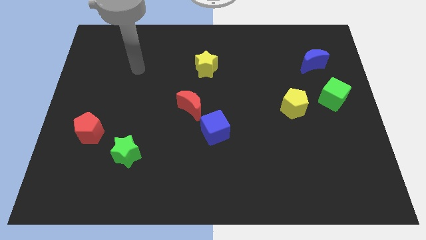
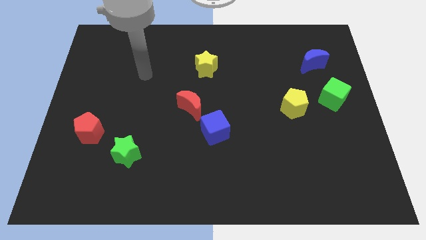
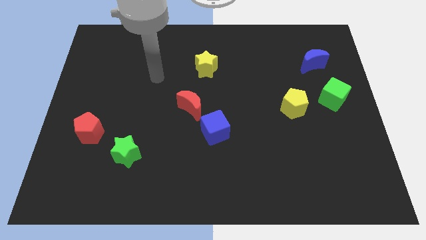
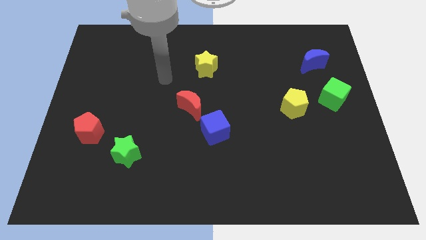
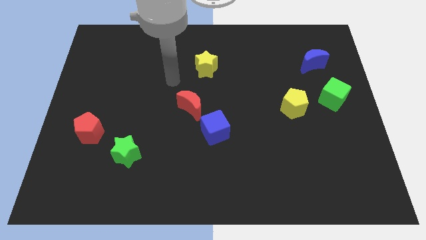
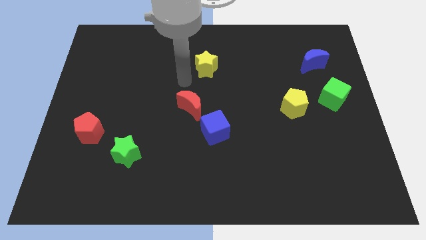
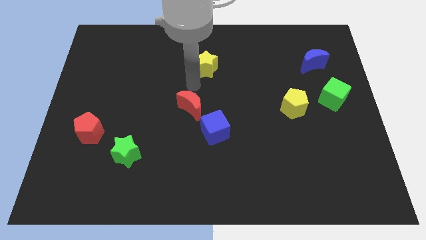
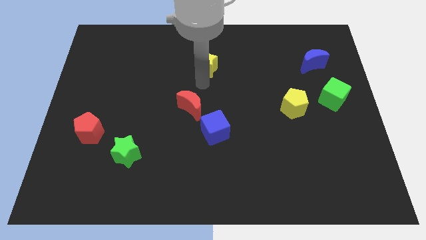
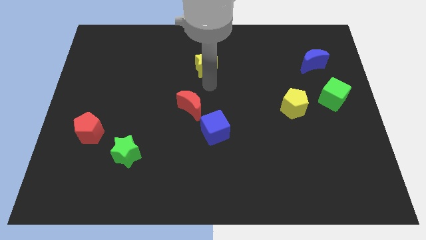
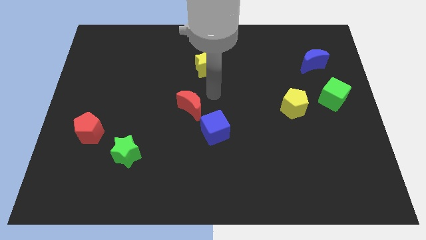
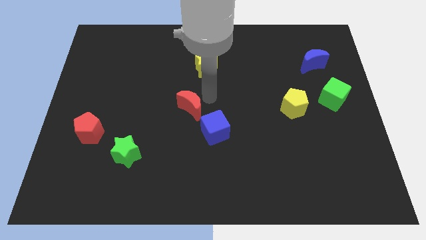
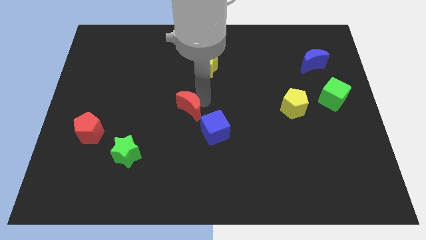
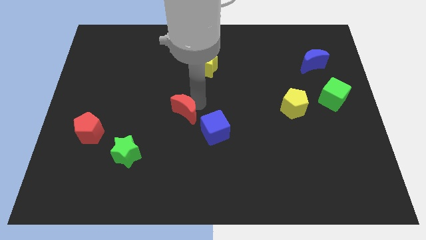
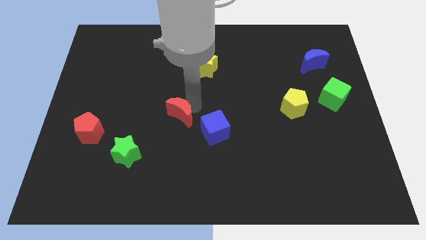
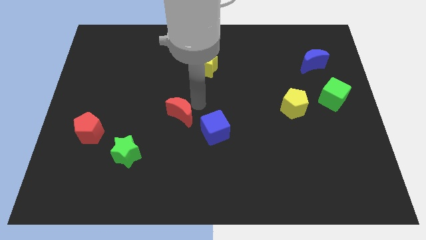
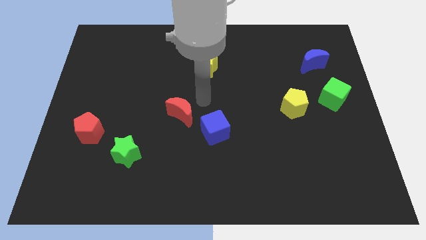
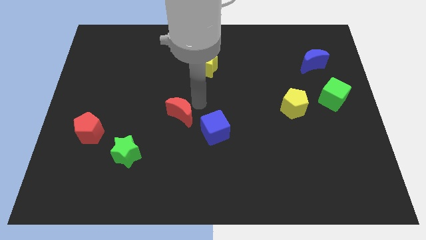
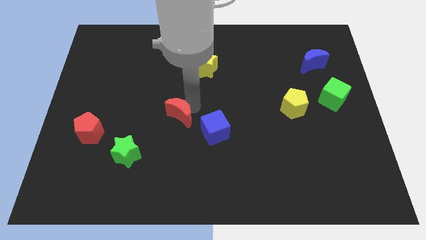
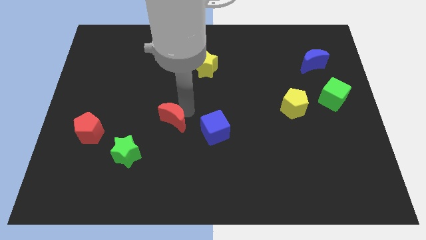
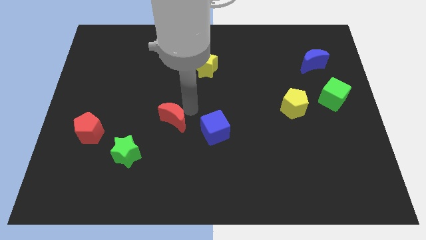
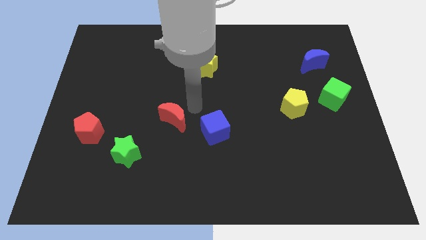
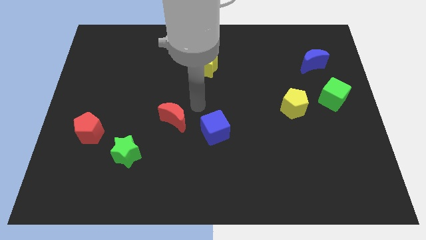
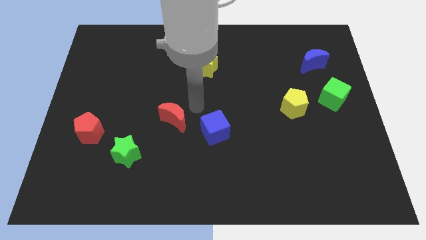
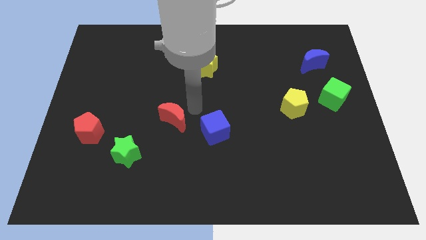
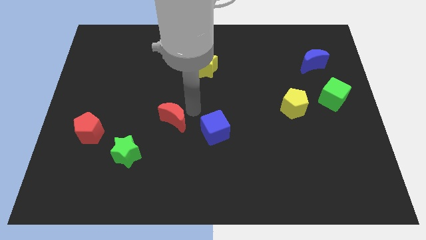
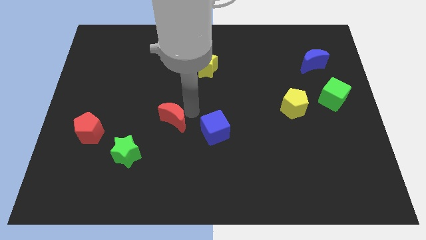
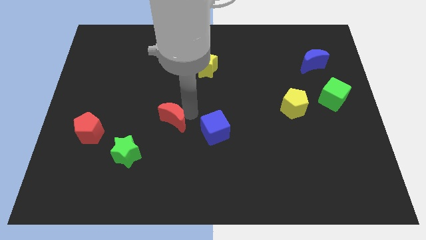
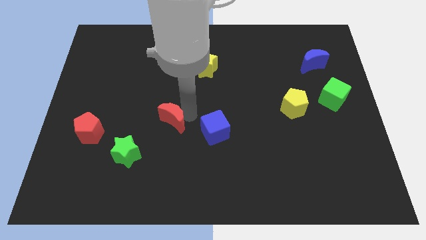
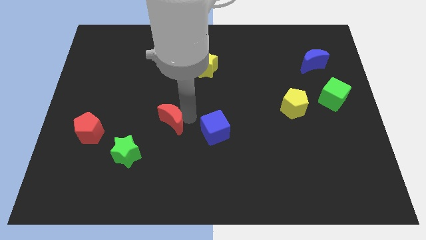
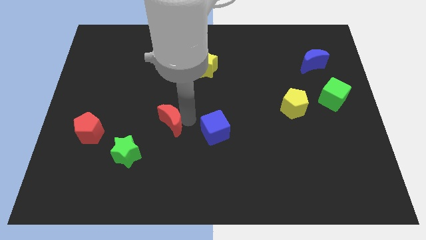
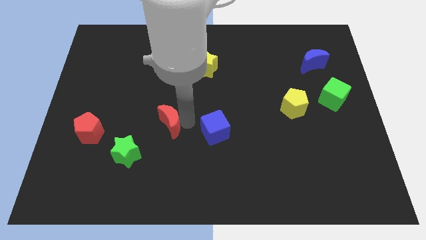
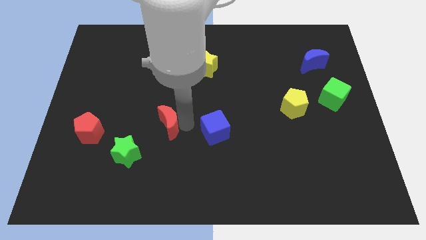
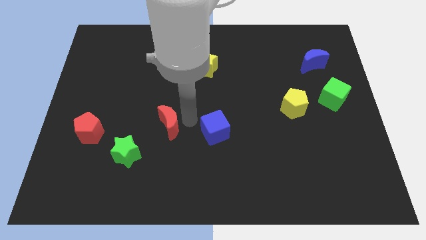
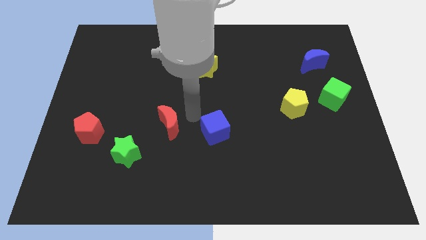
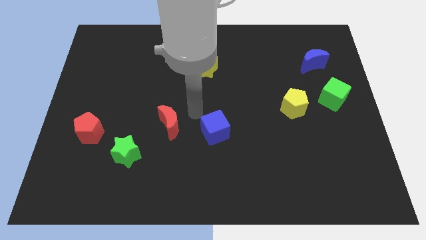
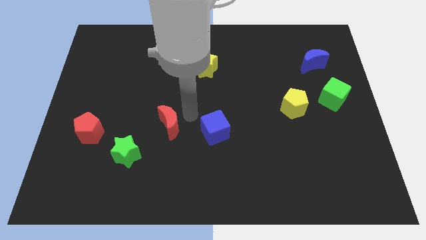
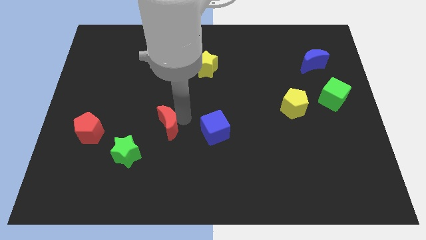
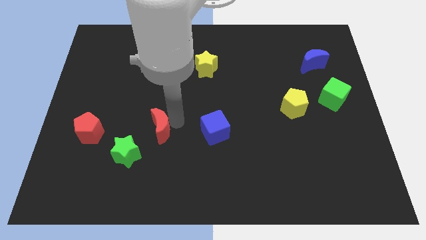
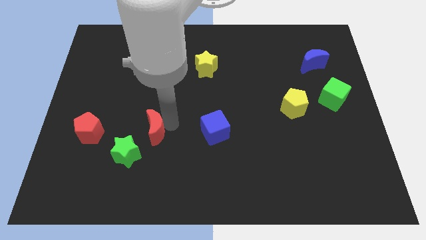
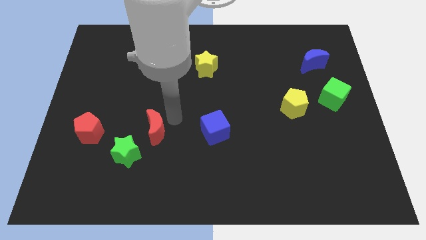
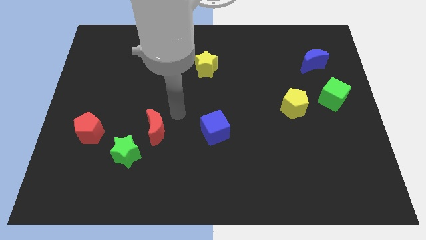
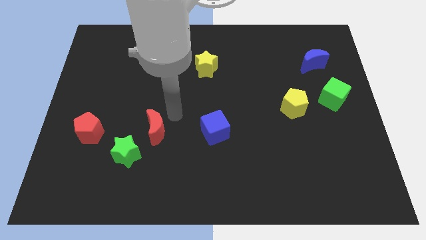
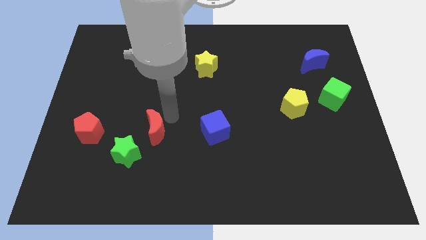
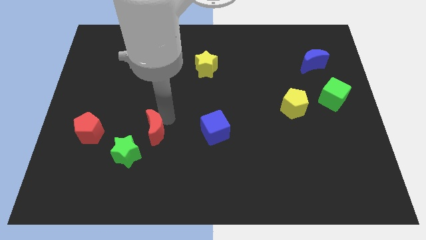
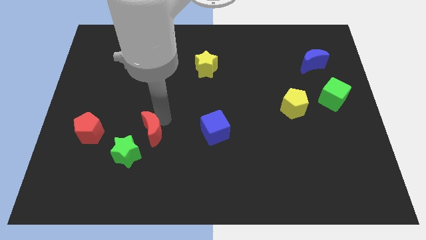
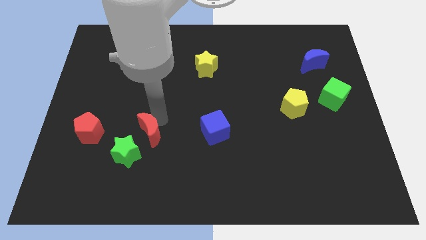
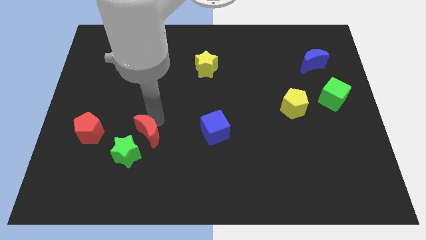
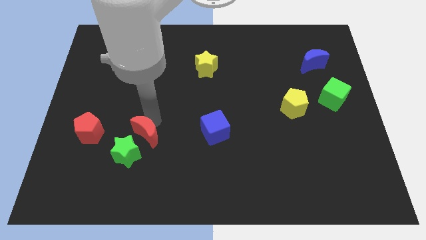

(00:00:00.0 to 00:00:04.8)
push the red moon to the green star

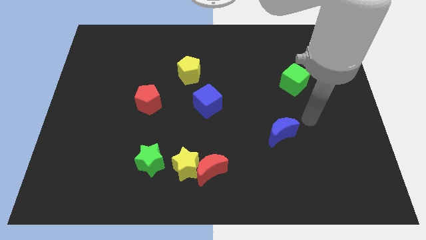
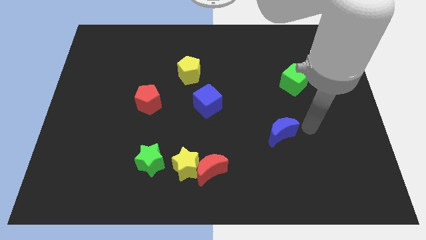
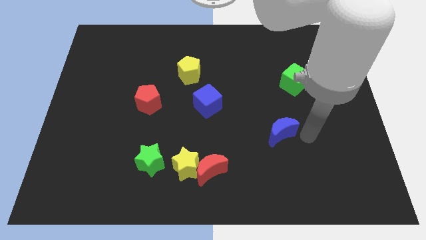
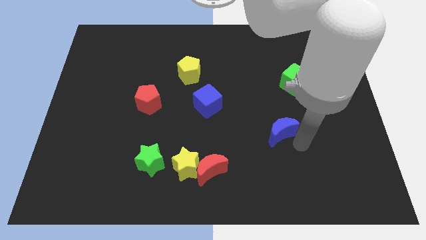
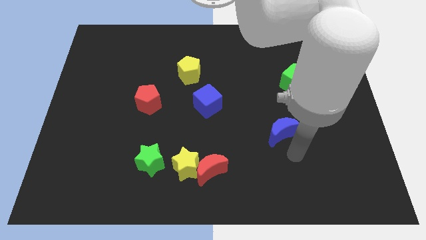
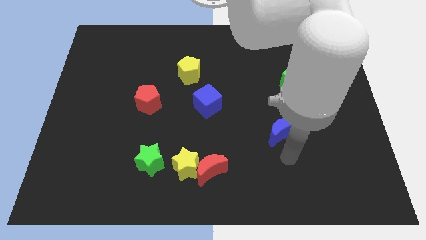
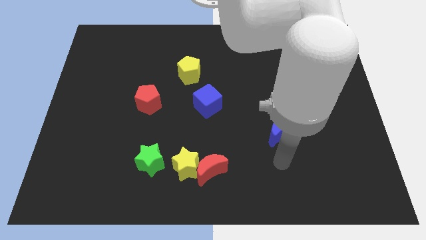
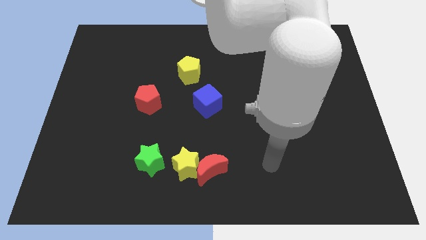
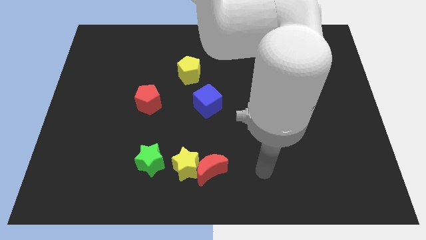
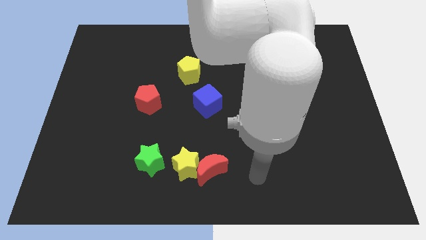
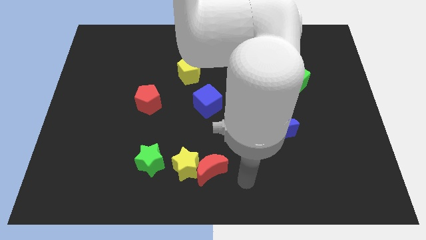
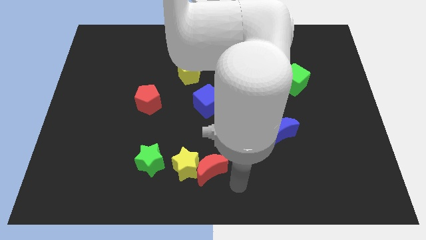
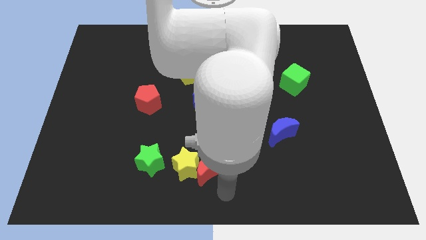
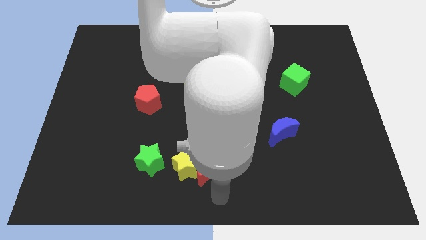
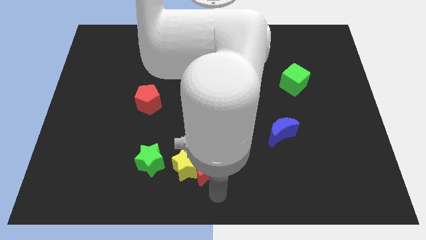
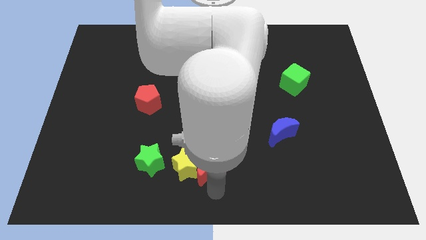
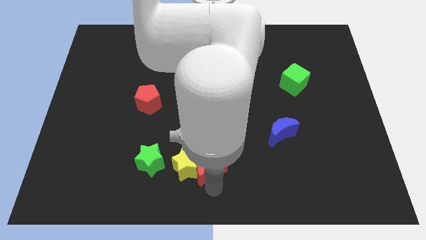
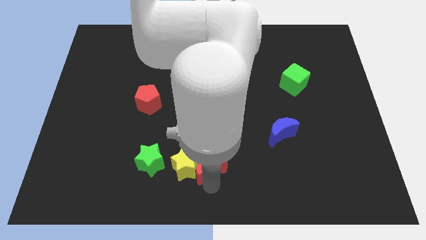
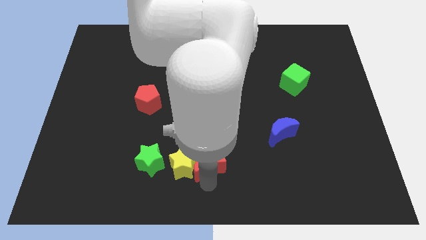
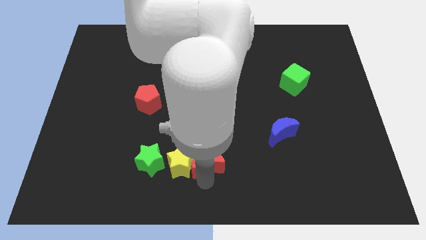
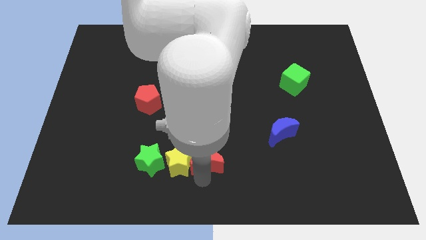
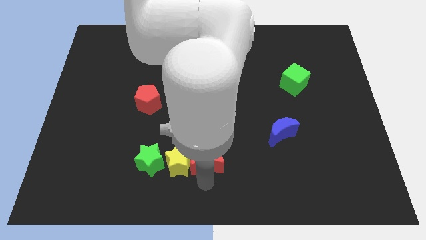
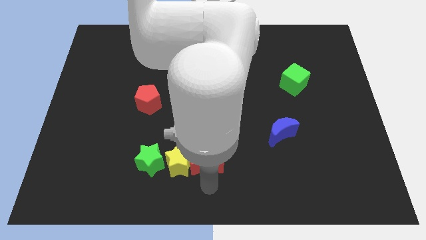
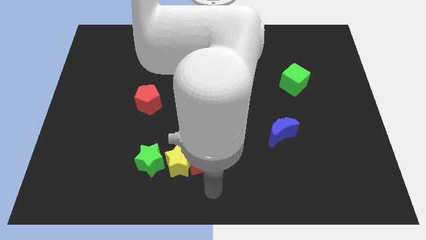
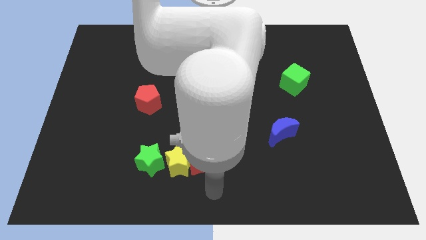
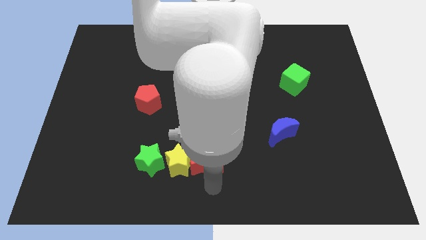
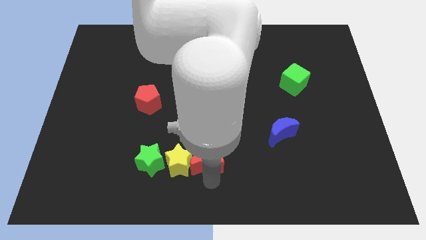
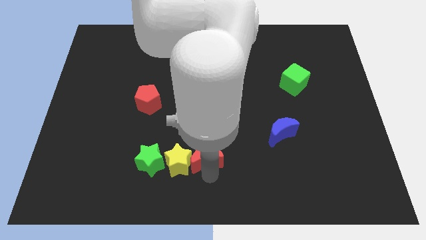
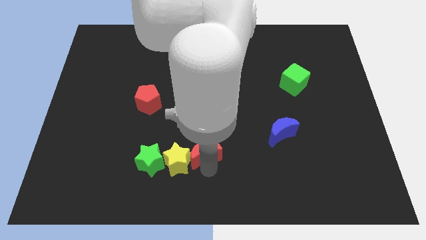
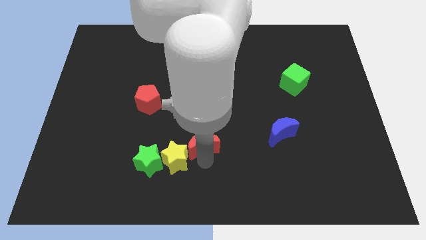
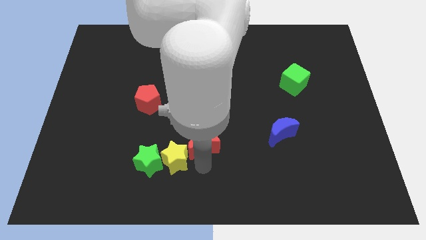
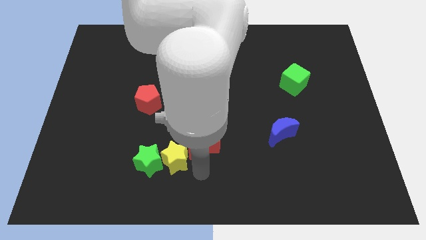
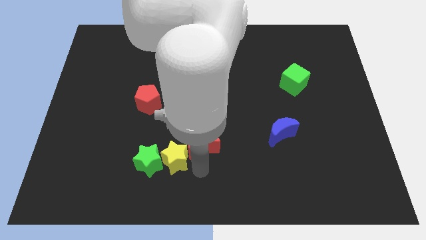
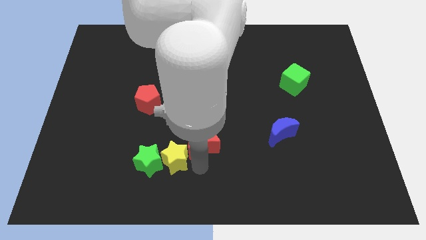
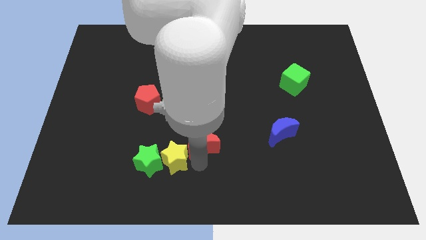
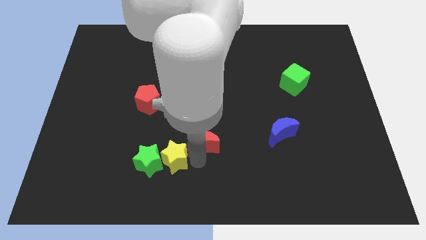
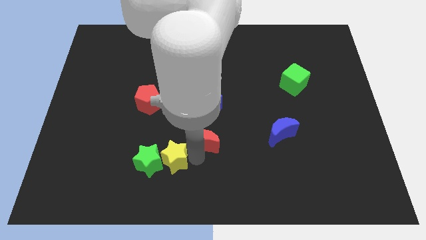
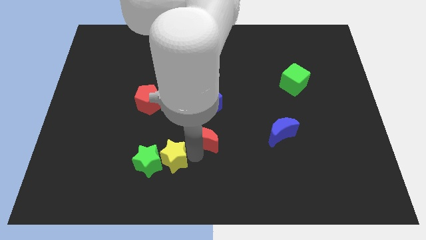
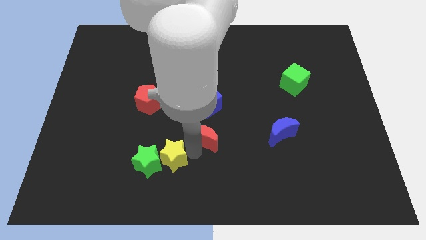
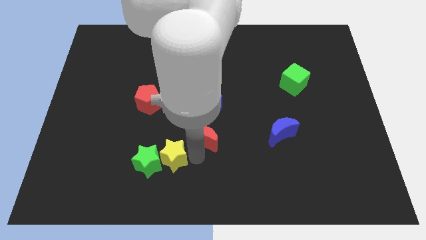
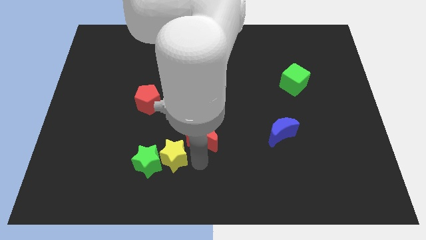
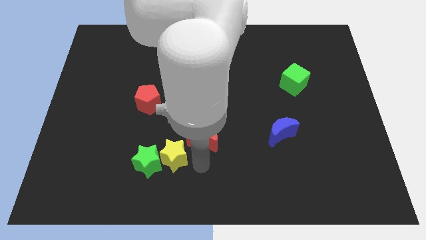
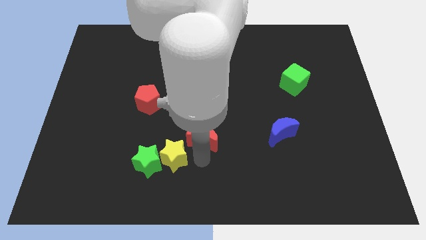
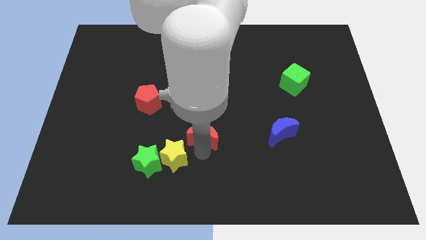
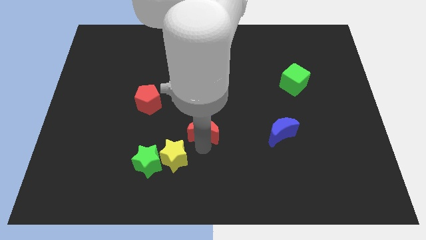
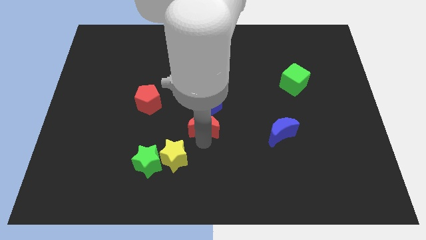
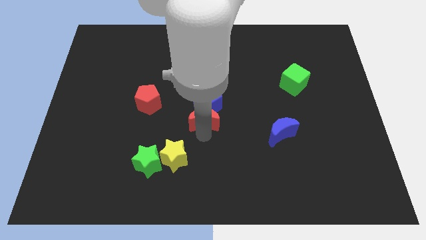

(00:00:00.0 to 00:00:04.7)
move the red moon close to the blue cube
